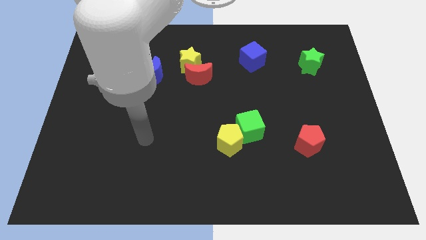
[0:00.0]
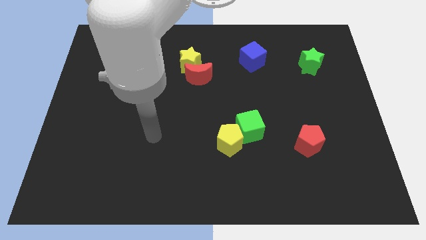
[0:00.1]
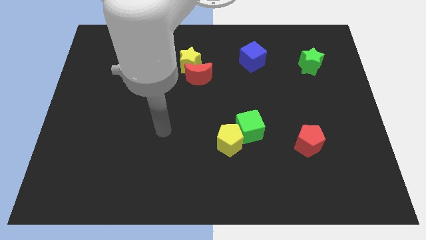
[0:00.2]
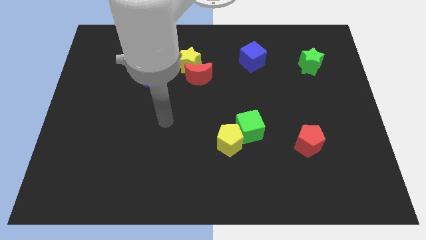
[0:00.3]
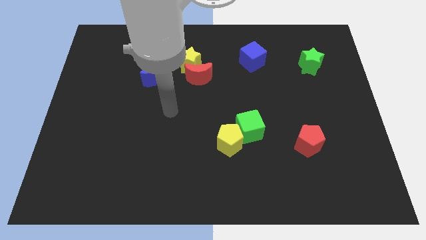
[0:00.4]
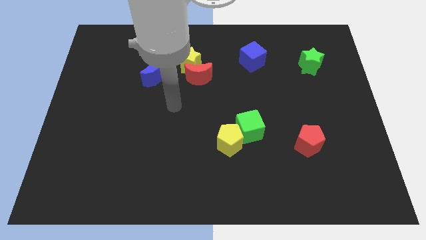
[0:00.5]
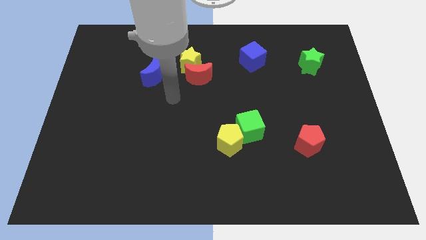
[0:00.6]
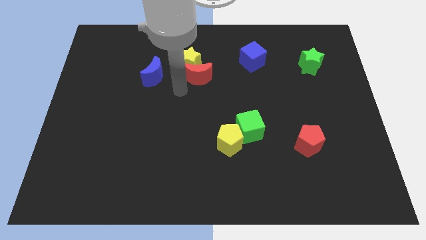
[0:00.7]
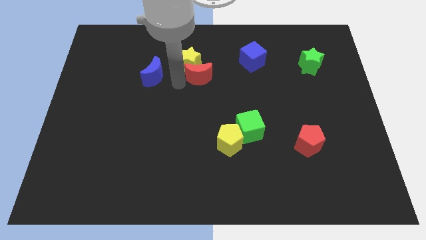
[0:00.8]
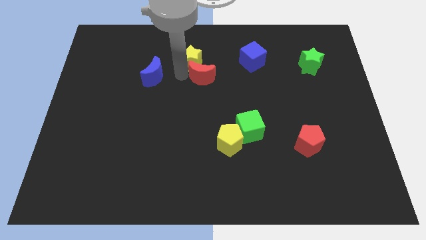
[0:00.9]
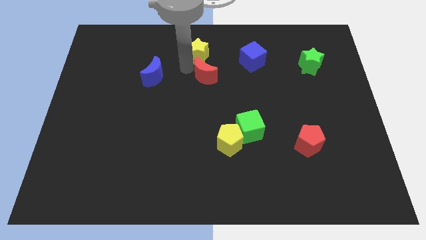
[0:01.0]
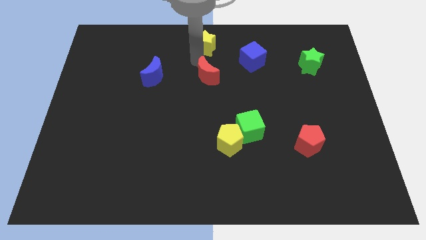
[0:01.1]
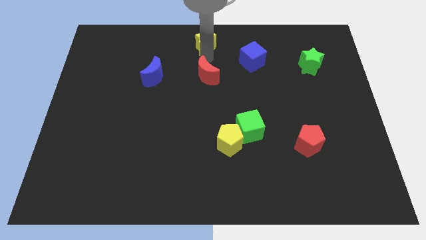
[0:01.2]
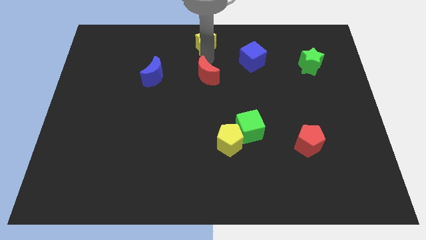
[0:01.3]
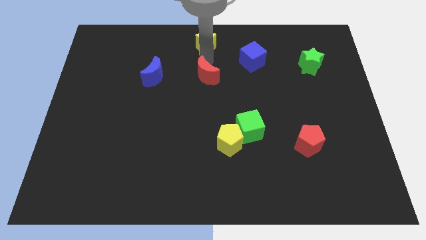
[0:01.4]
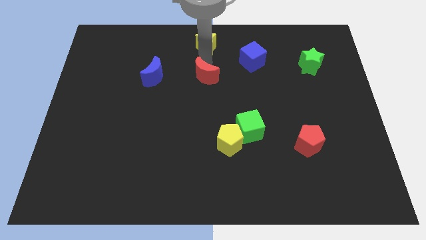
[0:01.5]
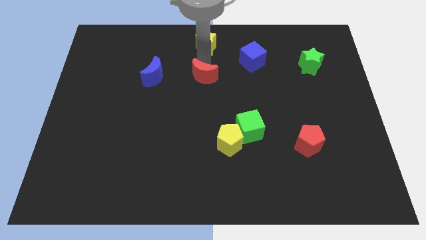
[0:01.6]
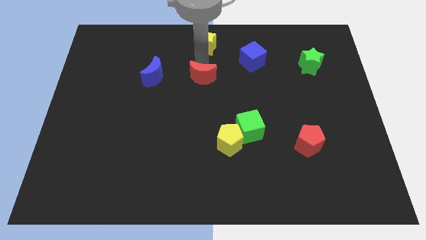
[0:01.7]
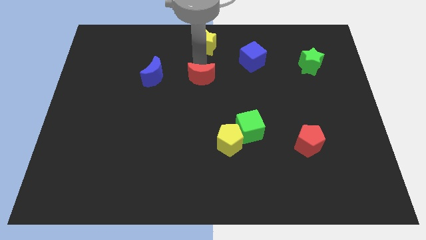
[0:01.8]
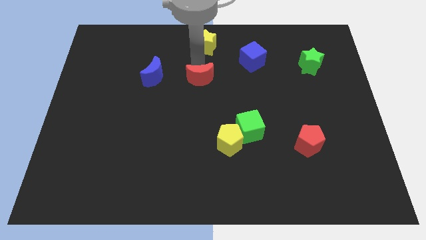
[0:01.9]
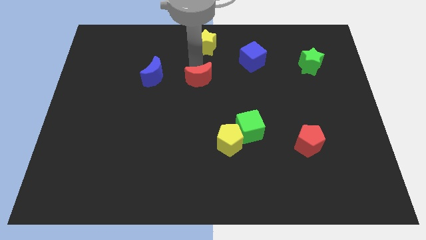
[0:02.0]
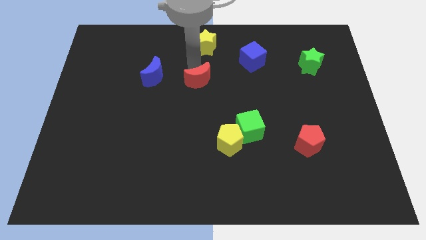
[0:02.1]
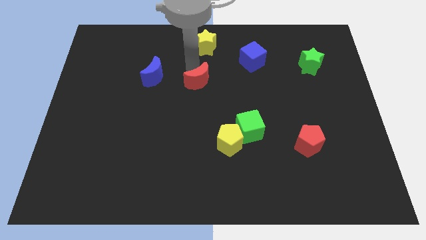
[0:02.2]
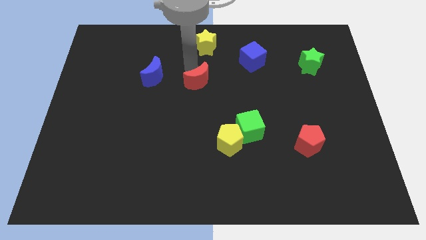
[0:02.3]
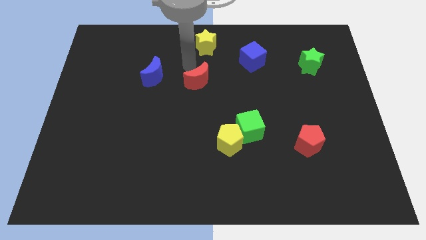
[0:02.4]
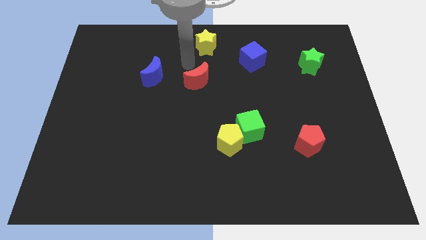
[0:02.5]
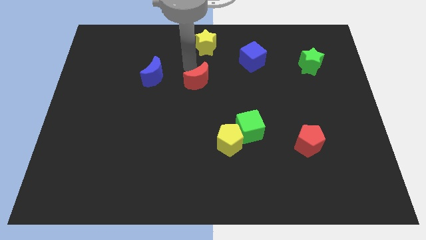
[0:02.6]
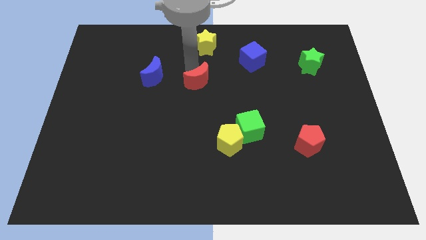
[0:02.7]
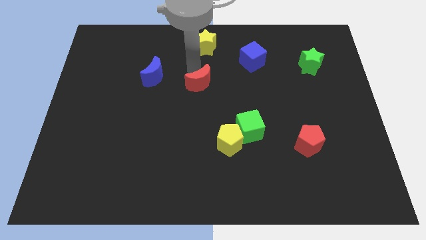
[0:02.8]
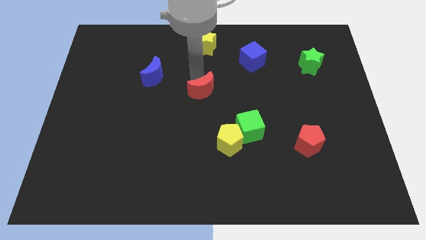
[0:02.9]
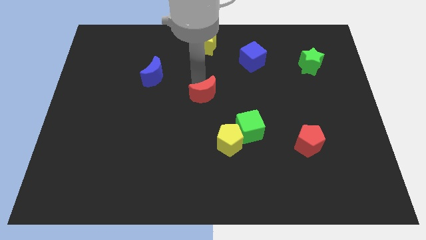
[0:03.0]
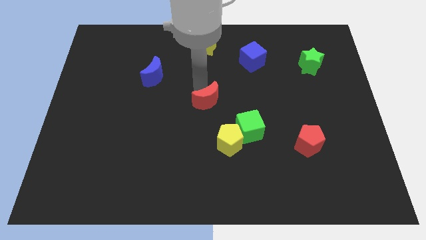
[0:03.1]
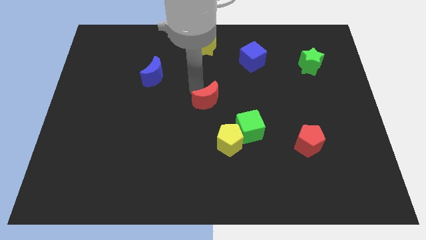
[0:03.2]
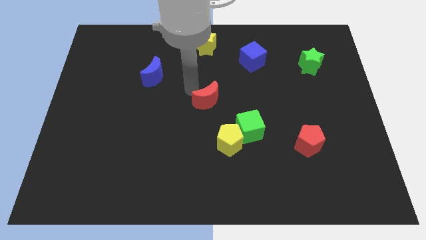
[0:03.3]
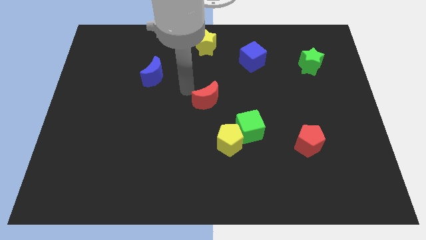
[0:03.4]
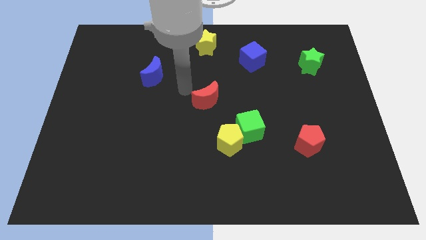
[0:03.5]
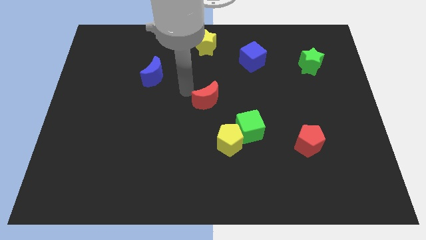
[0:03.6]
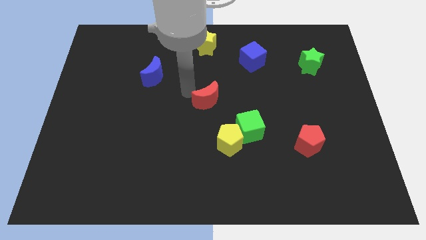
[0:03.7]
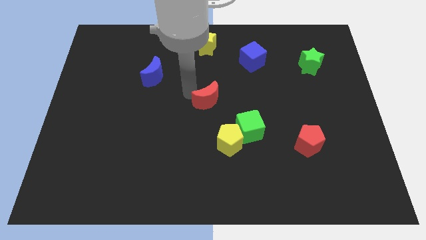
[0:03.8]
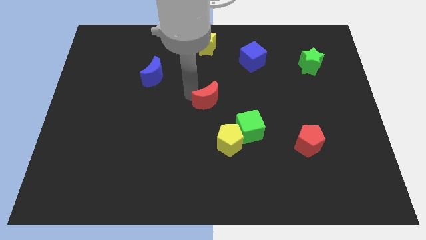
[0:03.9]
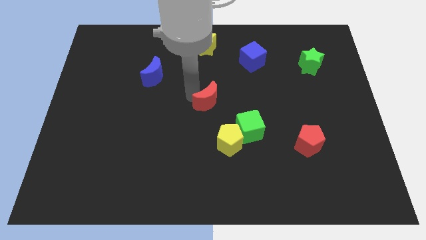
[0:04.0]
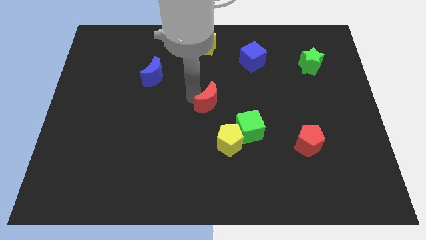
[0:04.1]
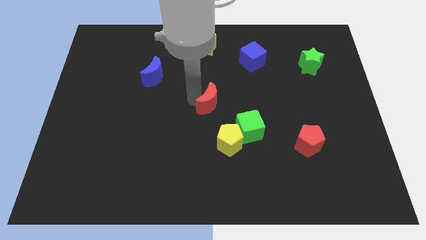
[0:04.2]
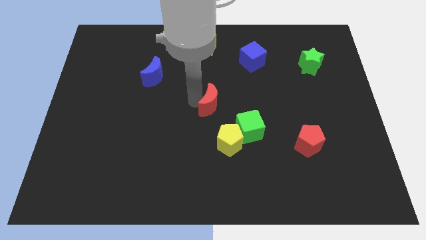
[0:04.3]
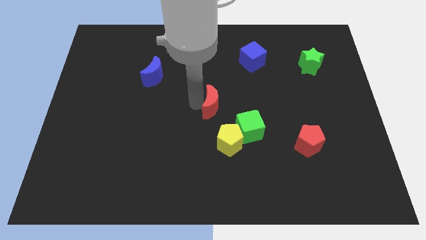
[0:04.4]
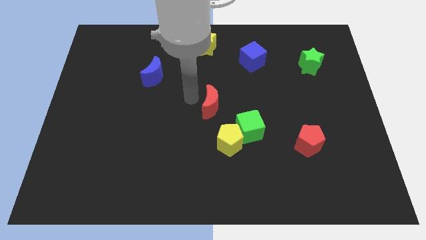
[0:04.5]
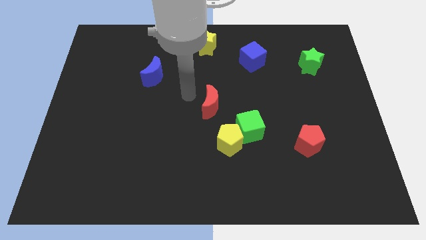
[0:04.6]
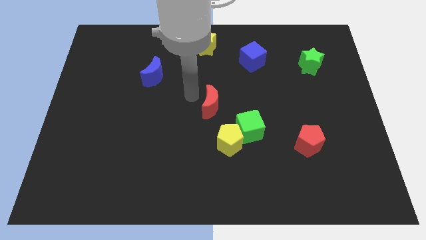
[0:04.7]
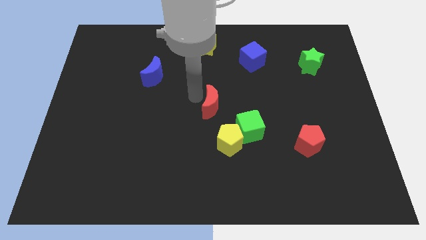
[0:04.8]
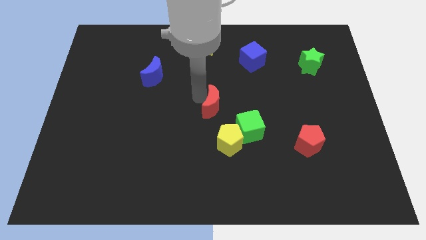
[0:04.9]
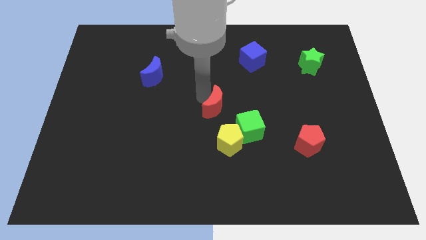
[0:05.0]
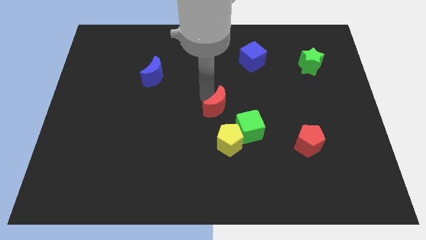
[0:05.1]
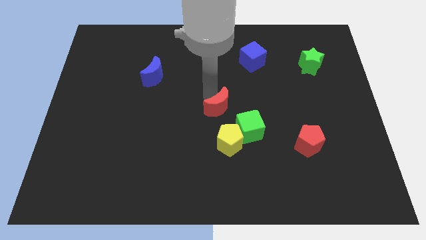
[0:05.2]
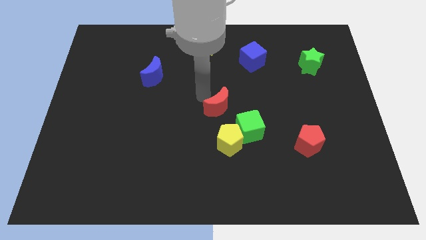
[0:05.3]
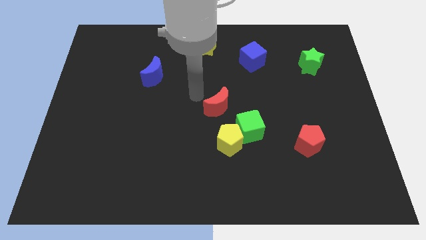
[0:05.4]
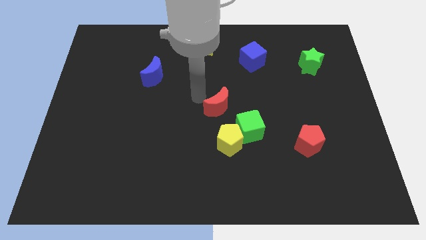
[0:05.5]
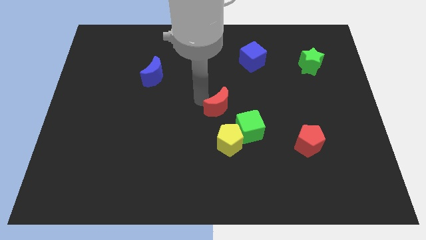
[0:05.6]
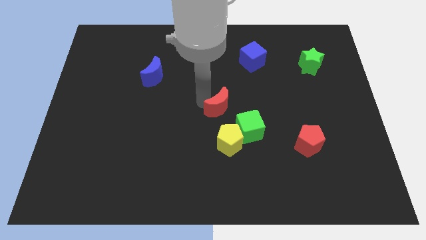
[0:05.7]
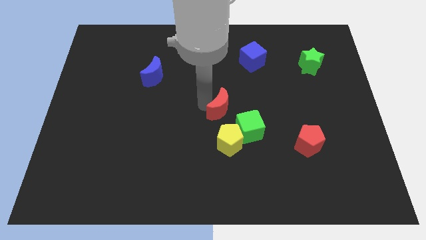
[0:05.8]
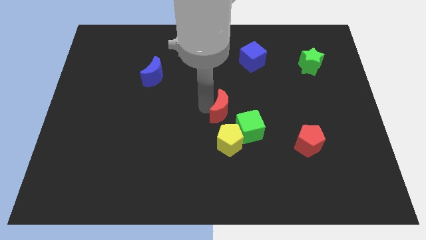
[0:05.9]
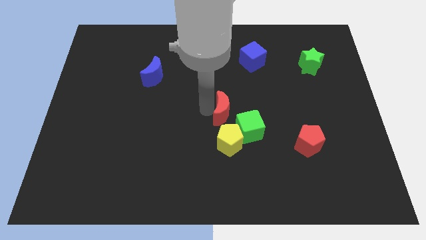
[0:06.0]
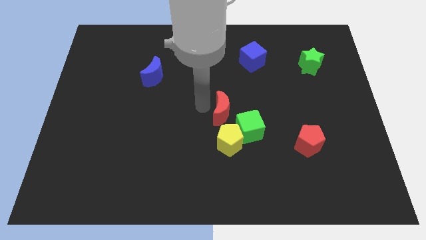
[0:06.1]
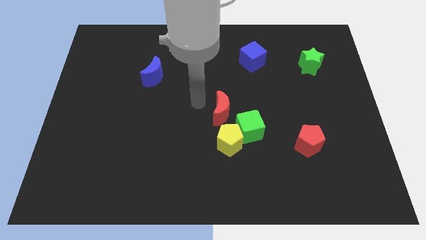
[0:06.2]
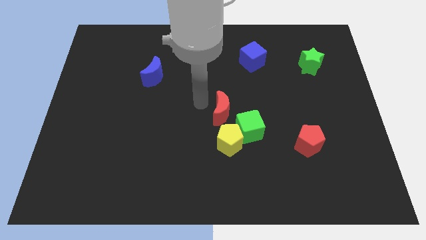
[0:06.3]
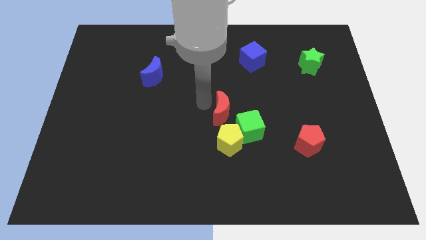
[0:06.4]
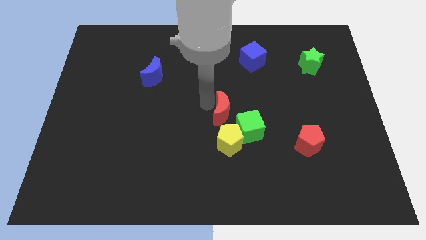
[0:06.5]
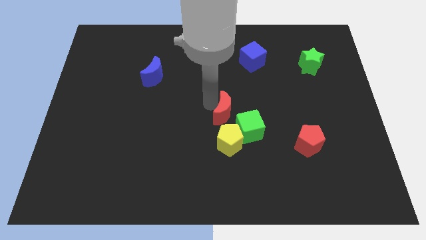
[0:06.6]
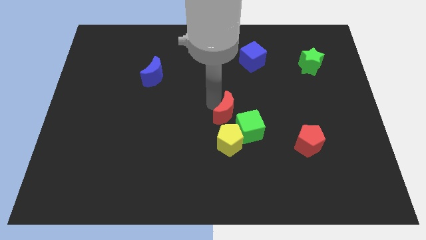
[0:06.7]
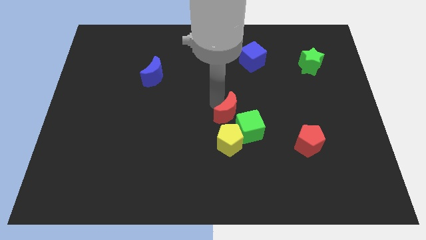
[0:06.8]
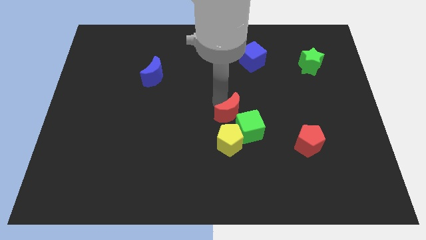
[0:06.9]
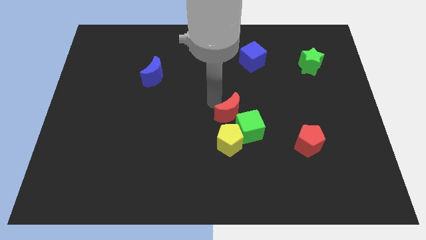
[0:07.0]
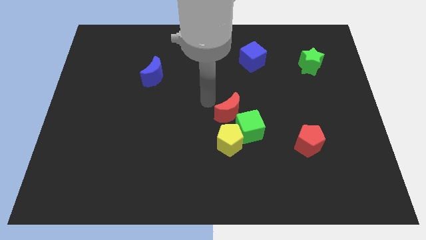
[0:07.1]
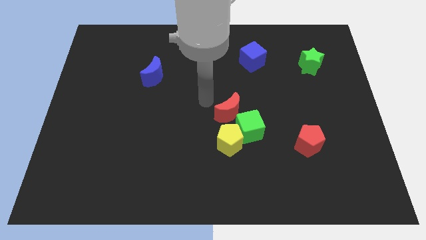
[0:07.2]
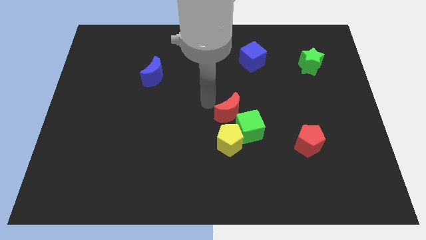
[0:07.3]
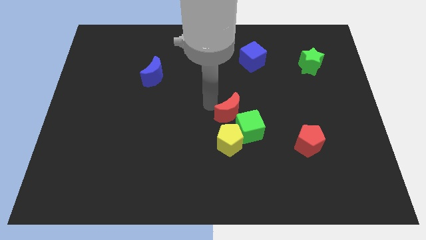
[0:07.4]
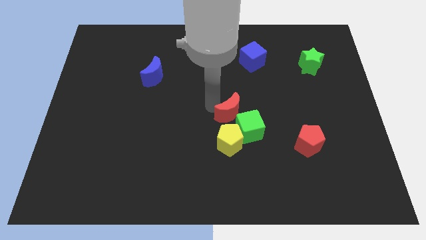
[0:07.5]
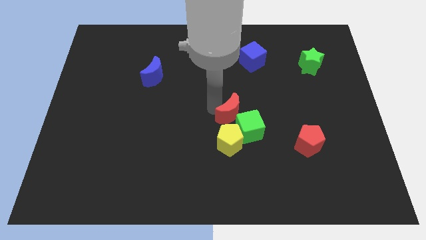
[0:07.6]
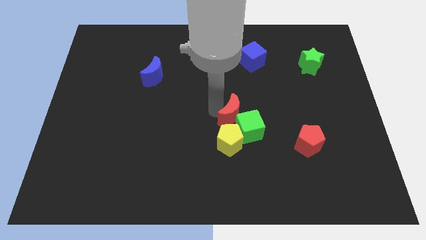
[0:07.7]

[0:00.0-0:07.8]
move the red moon to the top right side of the yellow pentagon
